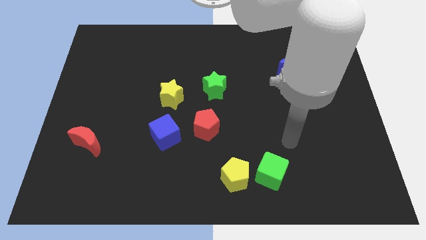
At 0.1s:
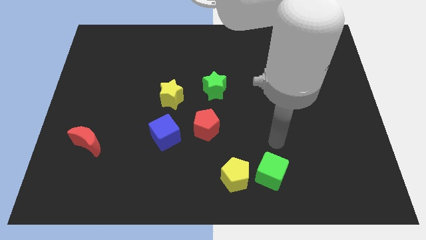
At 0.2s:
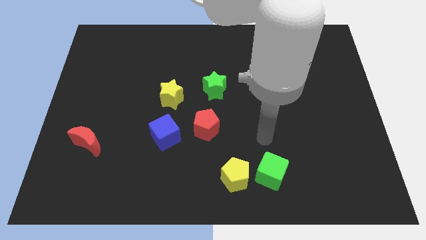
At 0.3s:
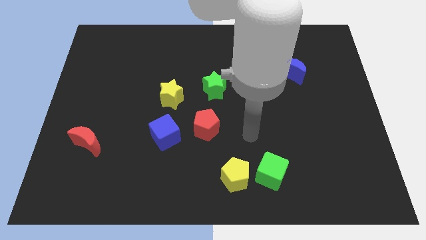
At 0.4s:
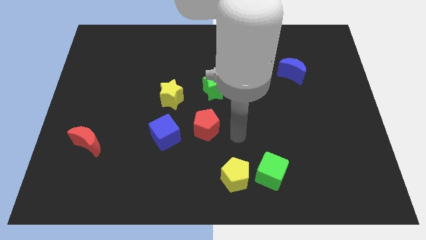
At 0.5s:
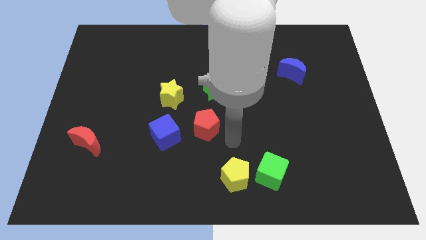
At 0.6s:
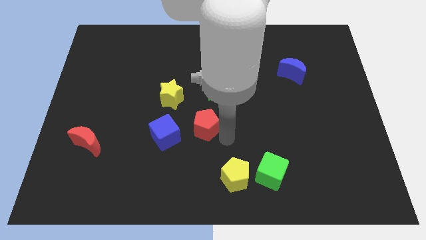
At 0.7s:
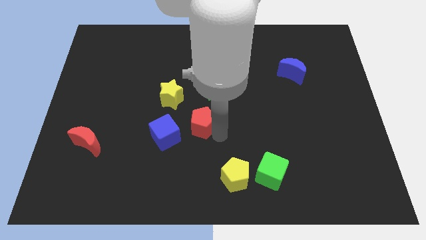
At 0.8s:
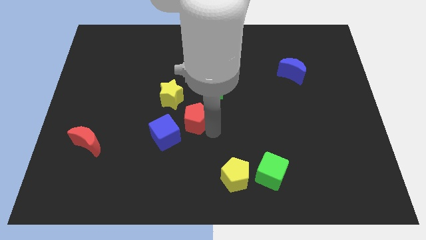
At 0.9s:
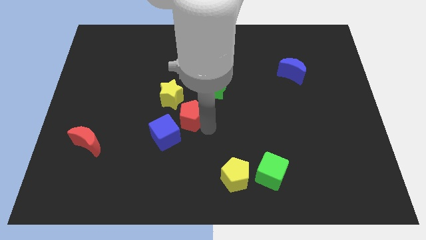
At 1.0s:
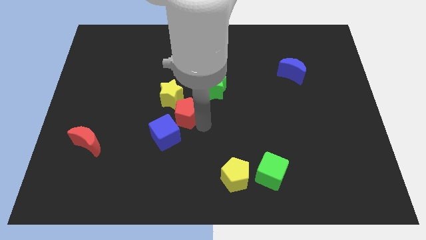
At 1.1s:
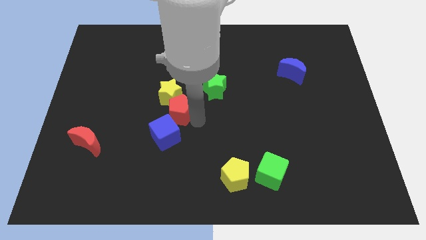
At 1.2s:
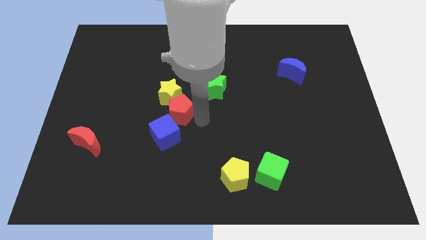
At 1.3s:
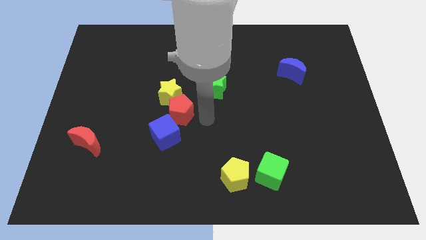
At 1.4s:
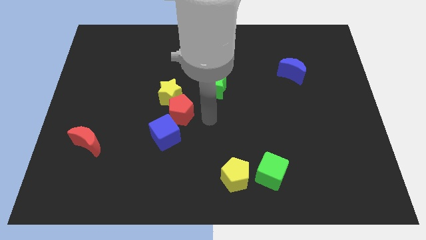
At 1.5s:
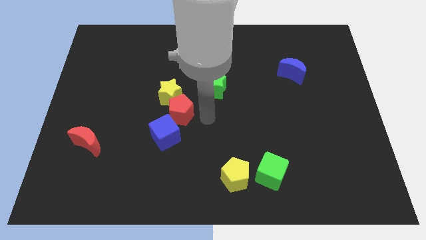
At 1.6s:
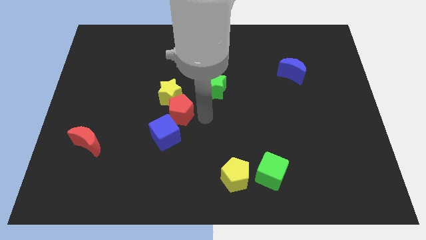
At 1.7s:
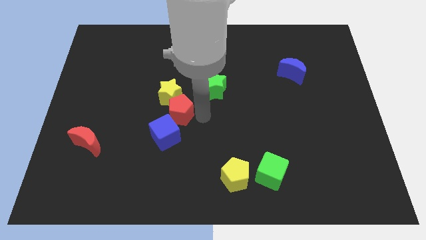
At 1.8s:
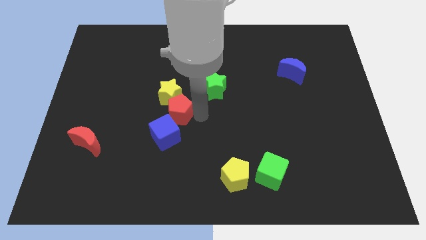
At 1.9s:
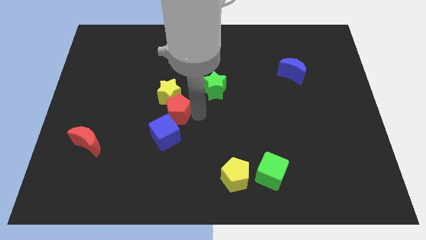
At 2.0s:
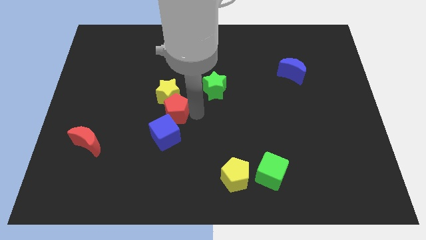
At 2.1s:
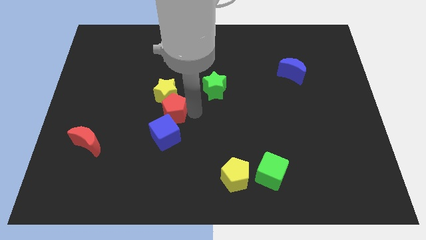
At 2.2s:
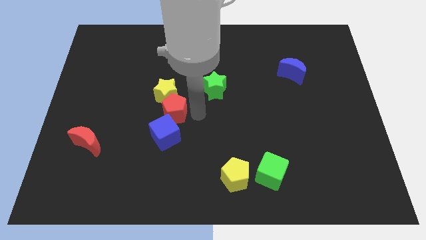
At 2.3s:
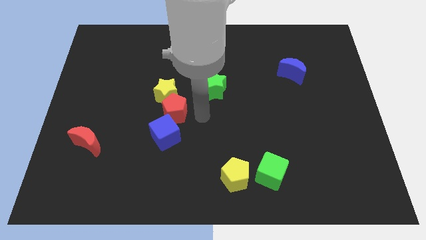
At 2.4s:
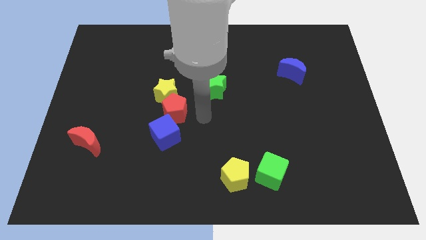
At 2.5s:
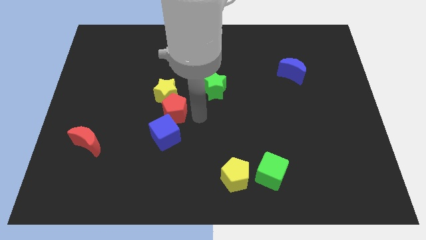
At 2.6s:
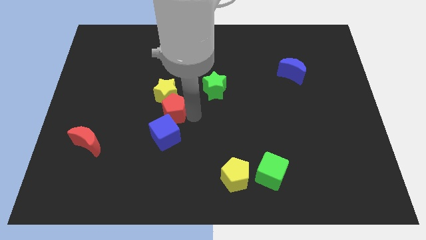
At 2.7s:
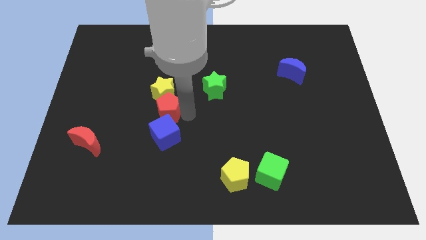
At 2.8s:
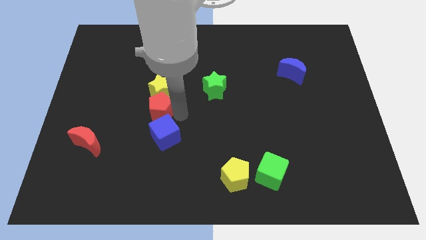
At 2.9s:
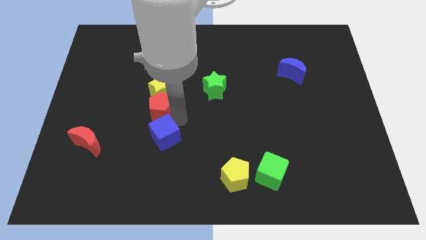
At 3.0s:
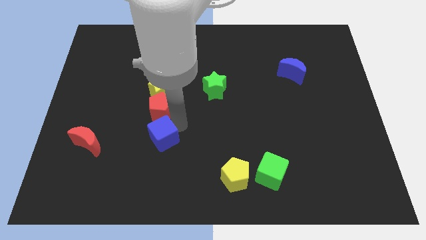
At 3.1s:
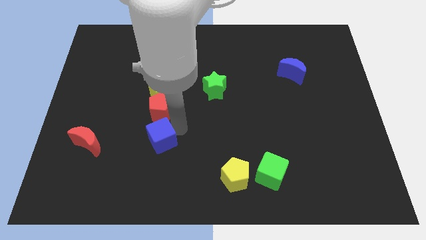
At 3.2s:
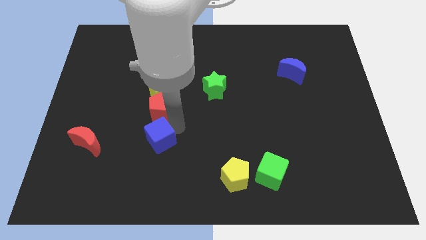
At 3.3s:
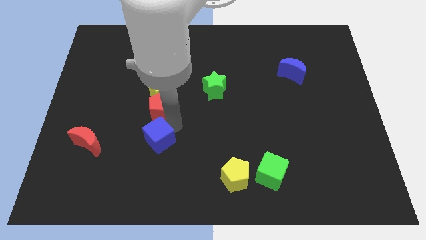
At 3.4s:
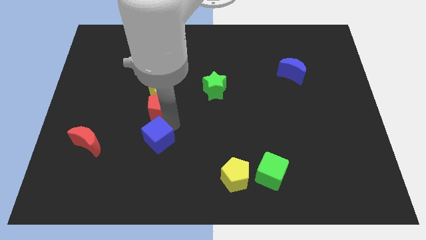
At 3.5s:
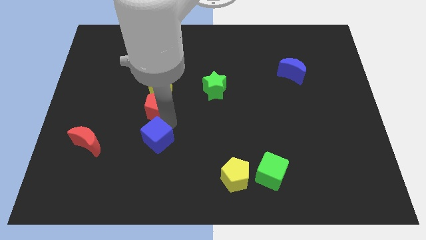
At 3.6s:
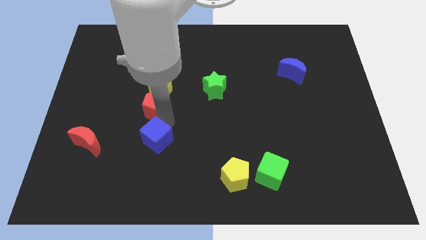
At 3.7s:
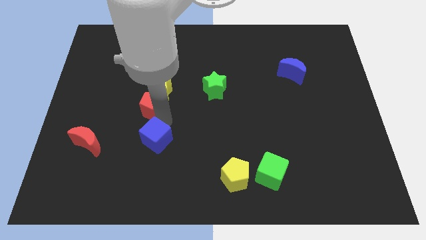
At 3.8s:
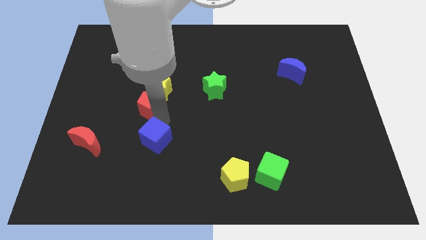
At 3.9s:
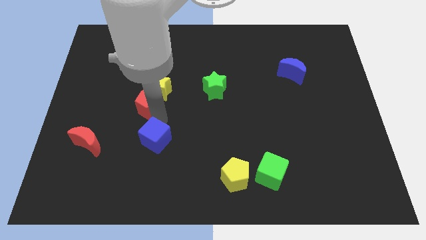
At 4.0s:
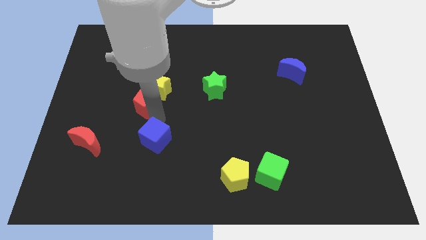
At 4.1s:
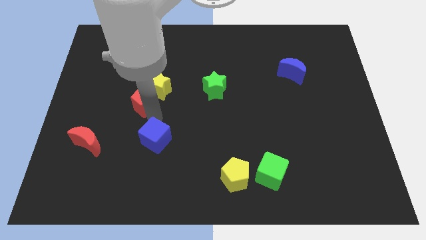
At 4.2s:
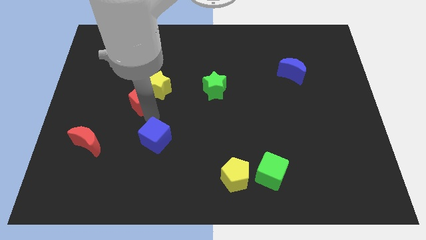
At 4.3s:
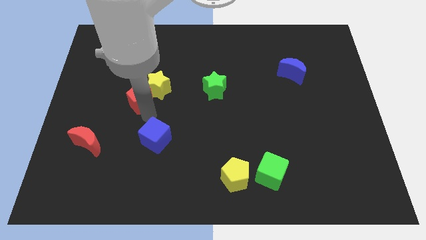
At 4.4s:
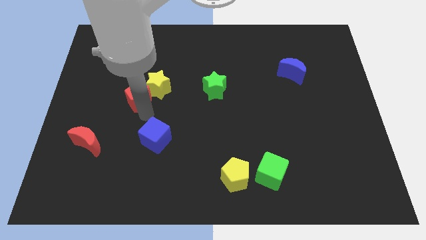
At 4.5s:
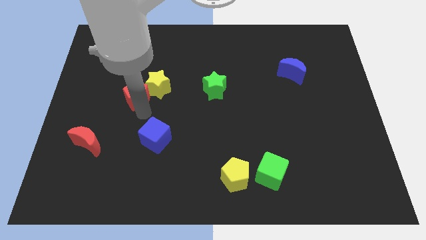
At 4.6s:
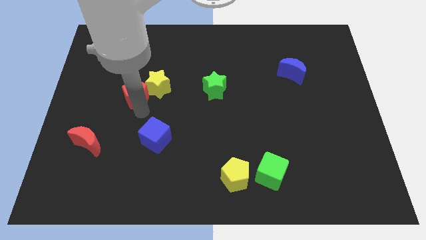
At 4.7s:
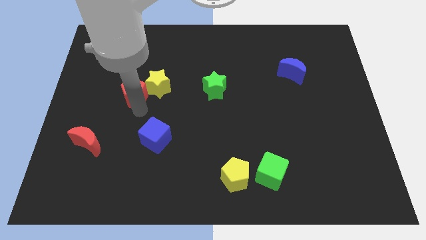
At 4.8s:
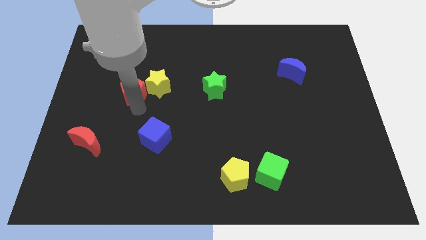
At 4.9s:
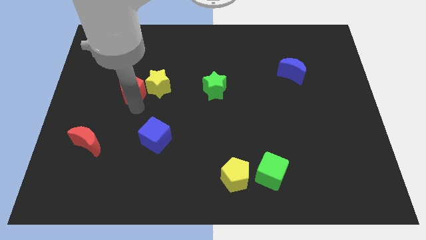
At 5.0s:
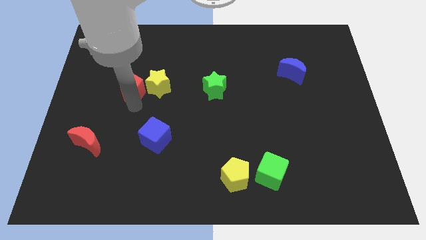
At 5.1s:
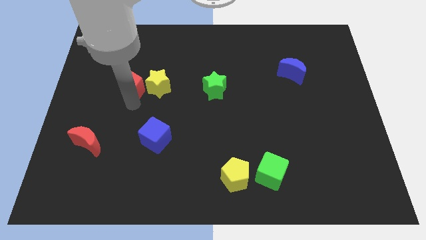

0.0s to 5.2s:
move the red pentagon upwards and then to the left

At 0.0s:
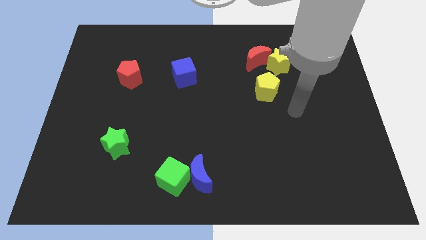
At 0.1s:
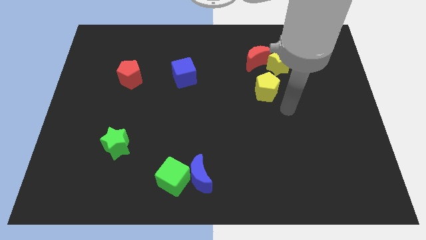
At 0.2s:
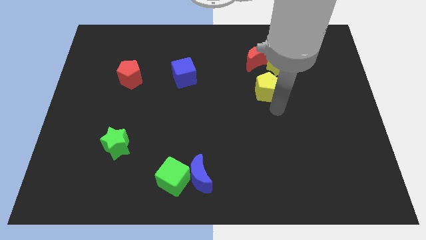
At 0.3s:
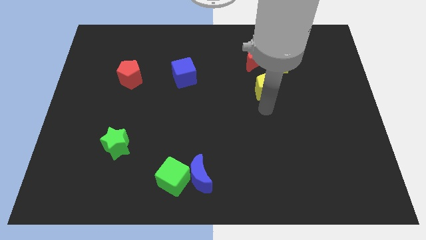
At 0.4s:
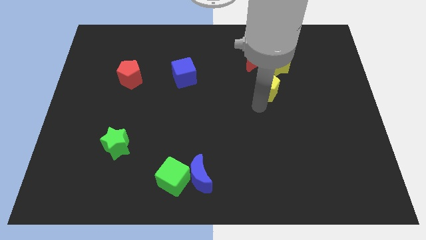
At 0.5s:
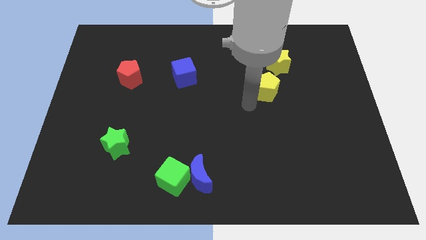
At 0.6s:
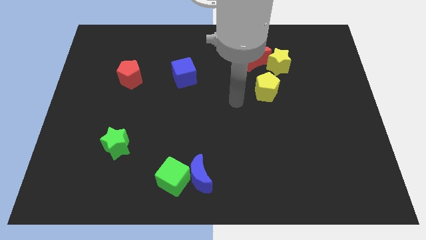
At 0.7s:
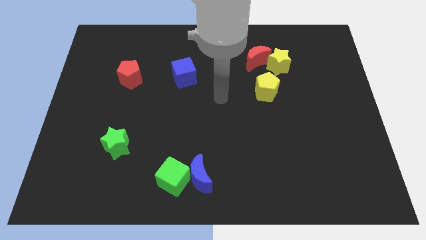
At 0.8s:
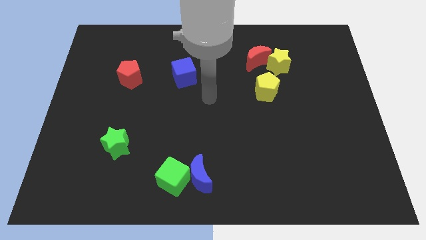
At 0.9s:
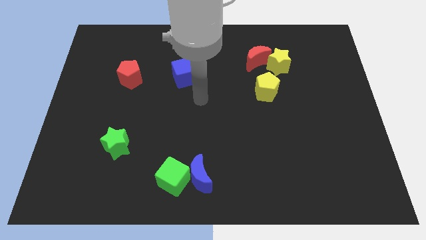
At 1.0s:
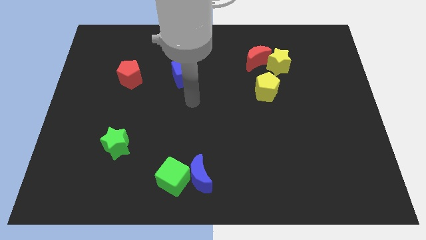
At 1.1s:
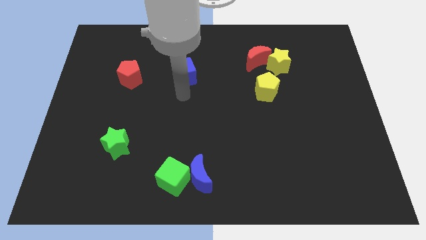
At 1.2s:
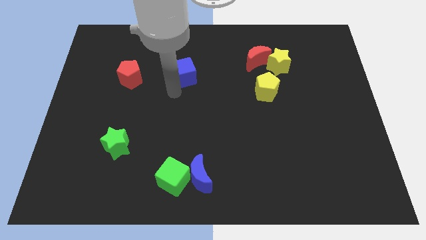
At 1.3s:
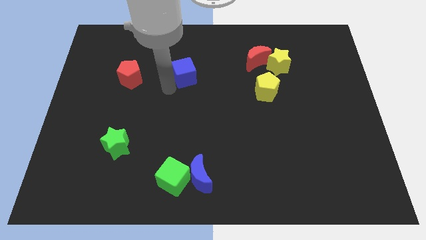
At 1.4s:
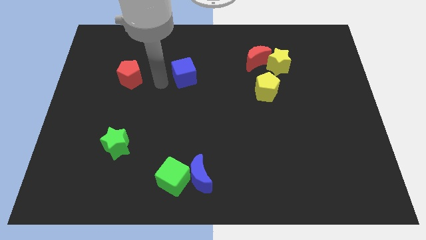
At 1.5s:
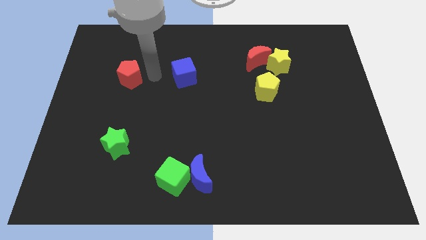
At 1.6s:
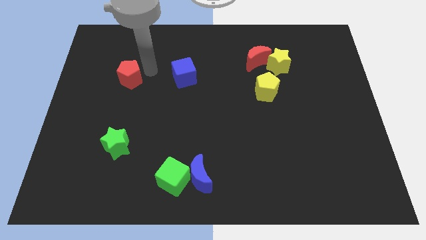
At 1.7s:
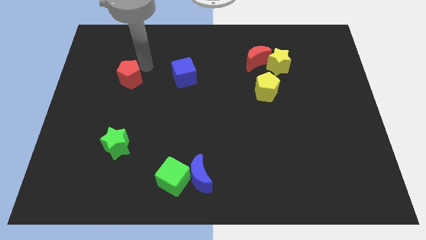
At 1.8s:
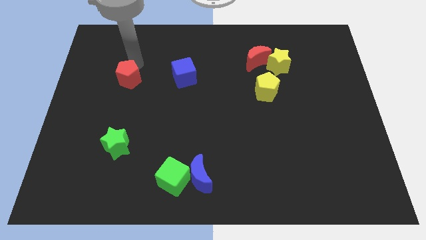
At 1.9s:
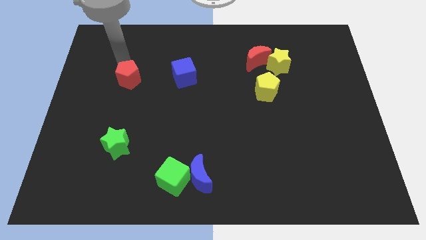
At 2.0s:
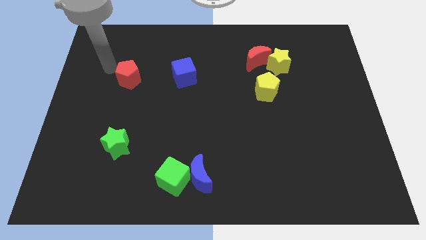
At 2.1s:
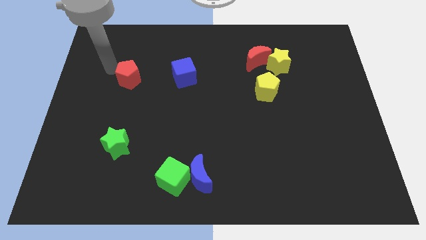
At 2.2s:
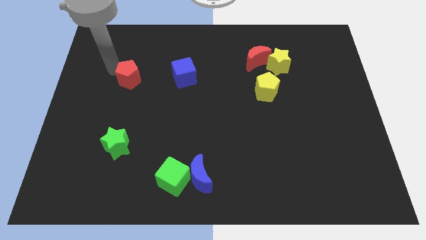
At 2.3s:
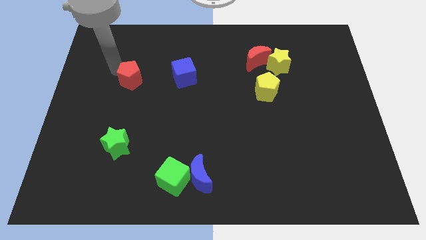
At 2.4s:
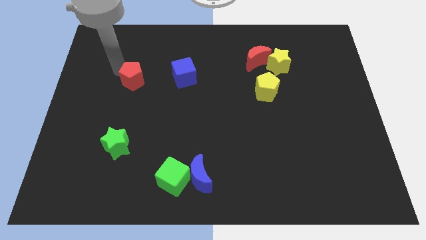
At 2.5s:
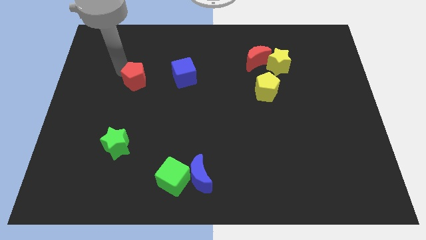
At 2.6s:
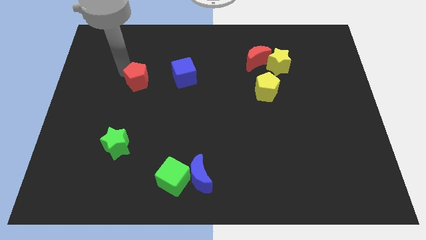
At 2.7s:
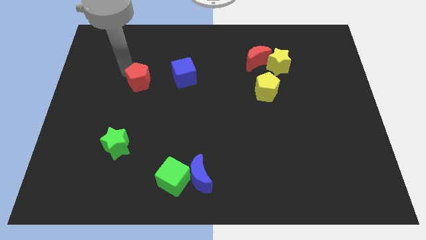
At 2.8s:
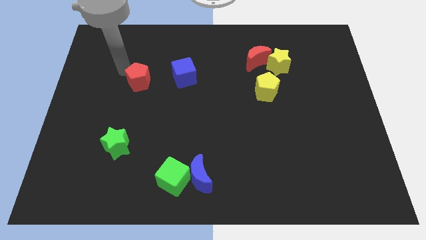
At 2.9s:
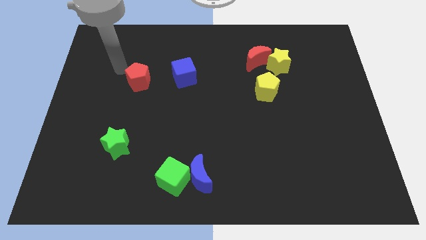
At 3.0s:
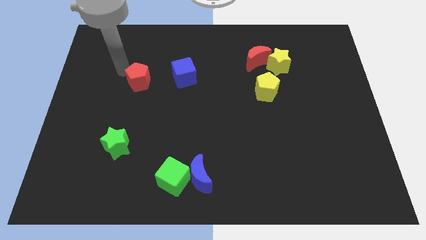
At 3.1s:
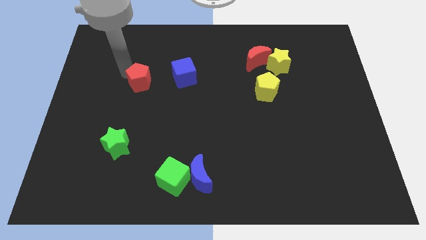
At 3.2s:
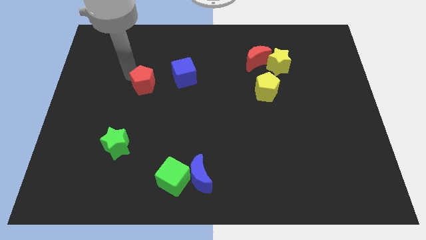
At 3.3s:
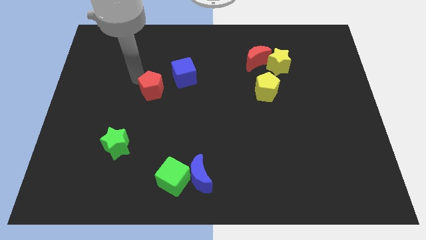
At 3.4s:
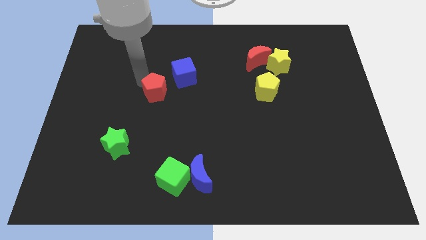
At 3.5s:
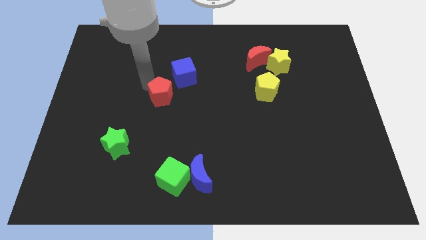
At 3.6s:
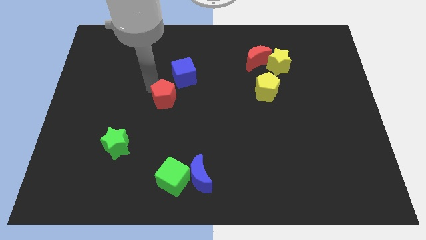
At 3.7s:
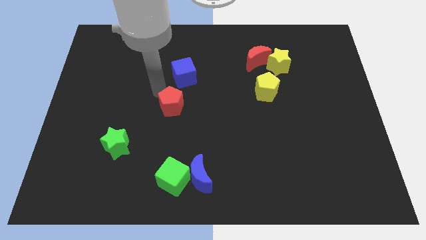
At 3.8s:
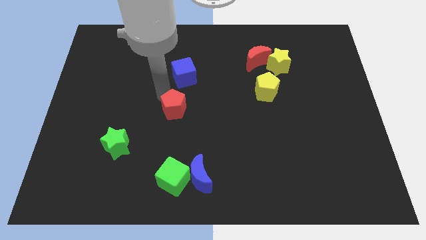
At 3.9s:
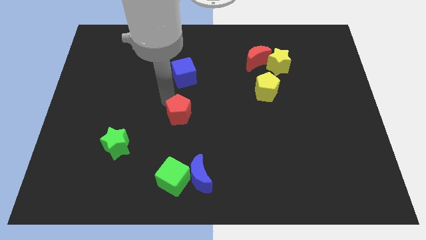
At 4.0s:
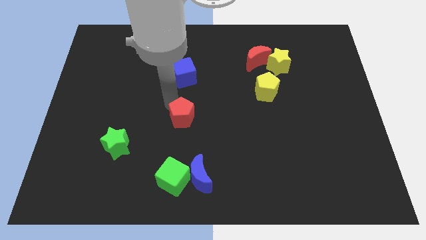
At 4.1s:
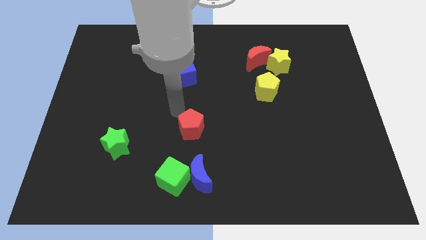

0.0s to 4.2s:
slide the red pentagon downwards and then to the right
